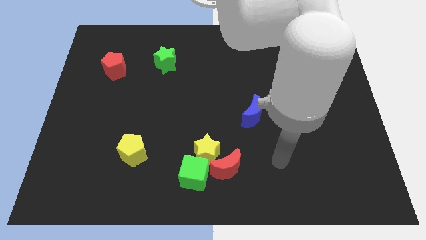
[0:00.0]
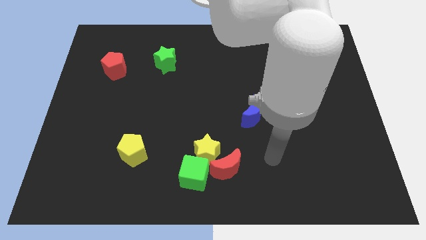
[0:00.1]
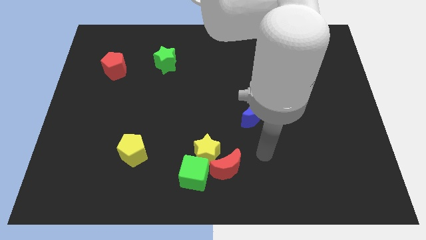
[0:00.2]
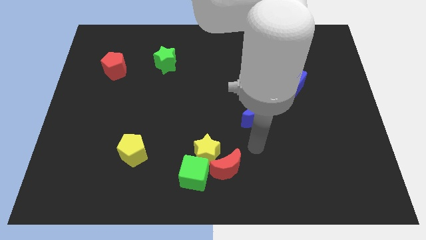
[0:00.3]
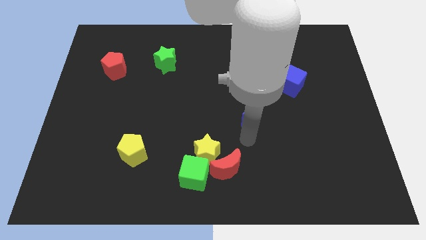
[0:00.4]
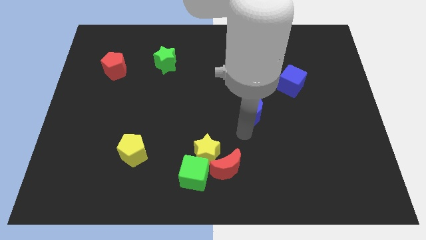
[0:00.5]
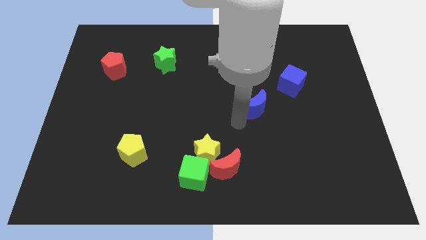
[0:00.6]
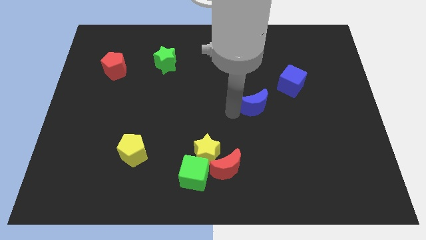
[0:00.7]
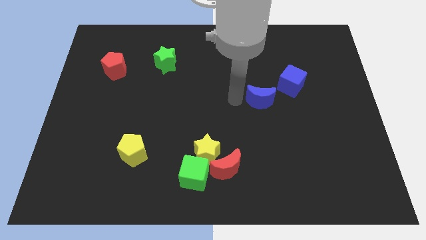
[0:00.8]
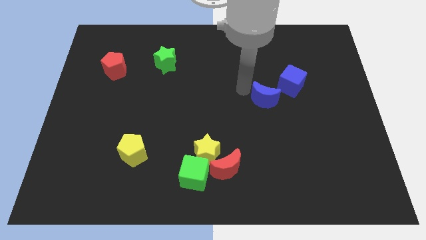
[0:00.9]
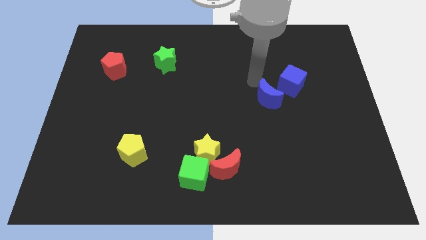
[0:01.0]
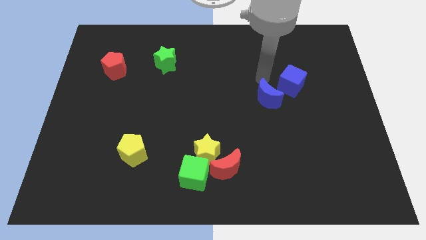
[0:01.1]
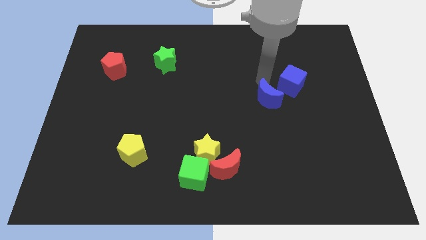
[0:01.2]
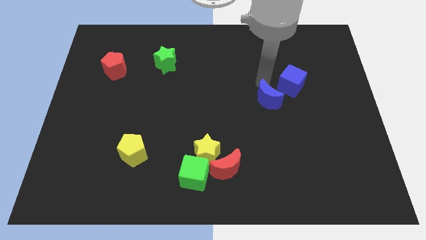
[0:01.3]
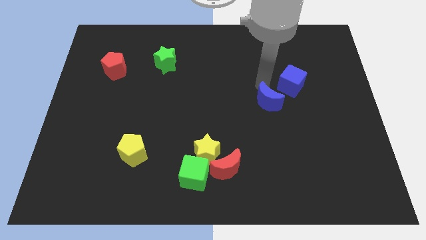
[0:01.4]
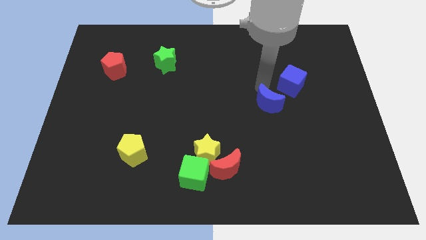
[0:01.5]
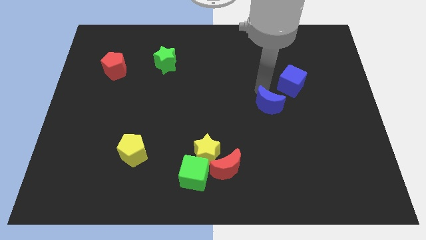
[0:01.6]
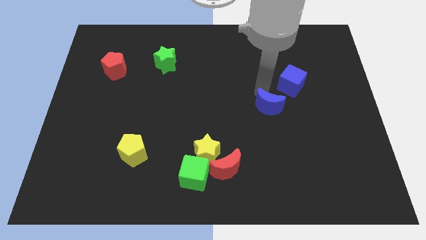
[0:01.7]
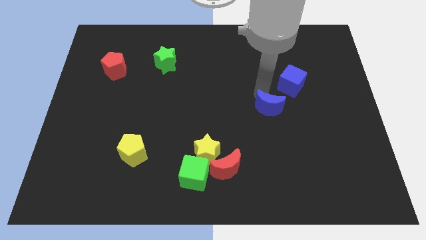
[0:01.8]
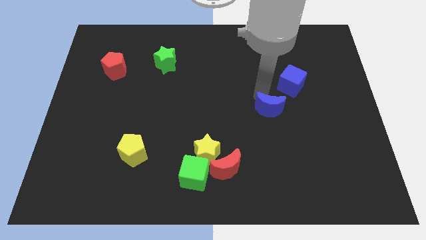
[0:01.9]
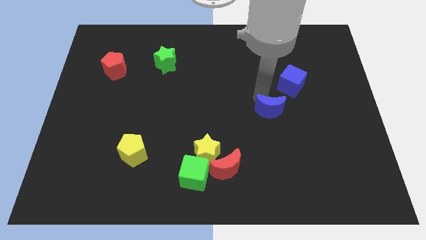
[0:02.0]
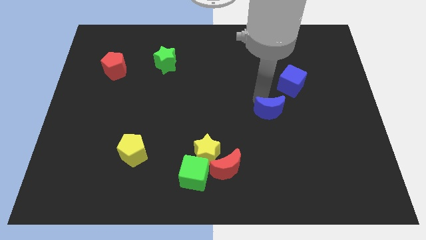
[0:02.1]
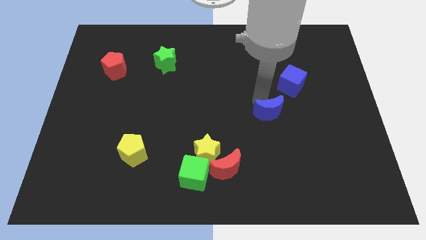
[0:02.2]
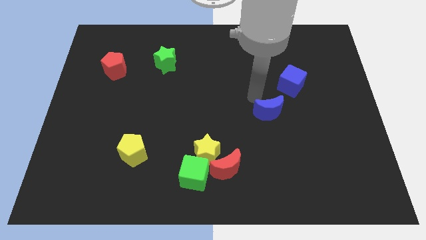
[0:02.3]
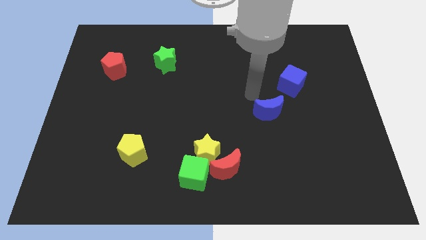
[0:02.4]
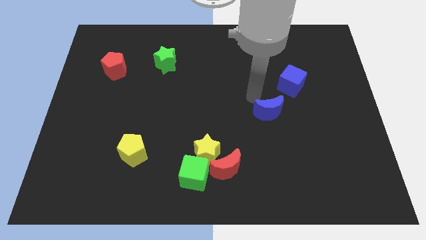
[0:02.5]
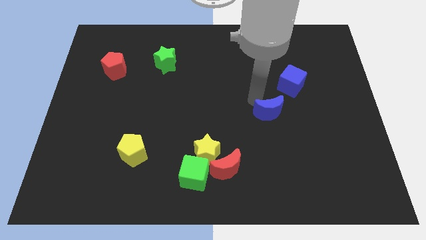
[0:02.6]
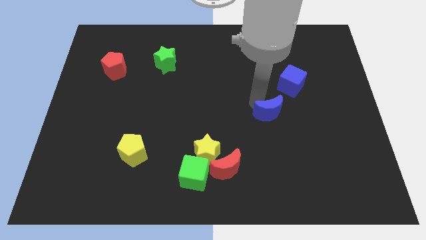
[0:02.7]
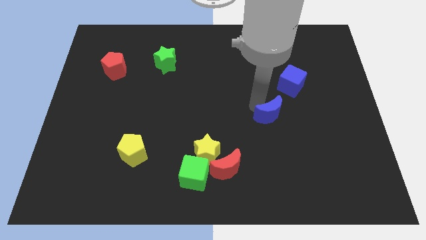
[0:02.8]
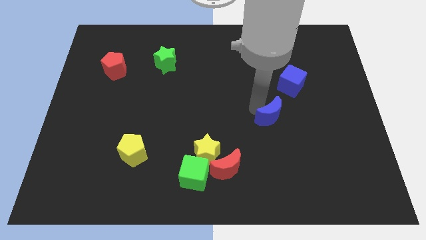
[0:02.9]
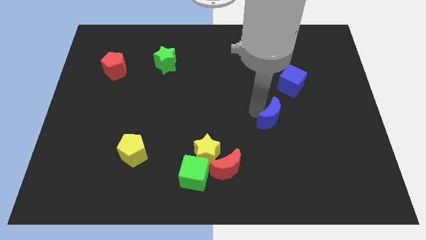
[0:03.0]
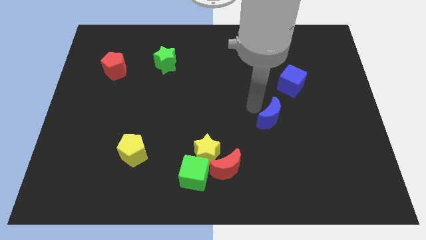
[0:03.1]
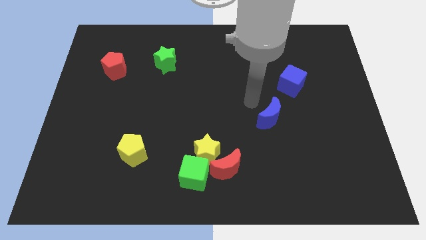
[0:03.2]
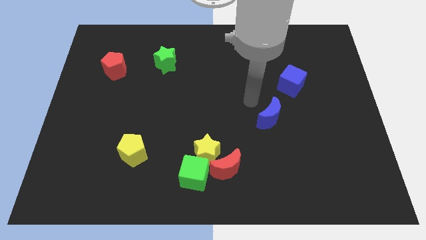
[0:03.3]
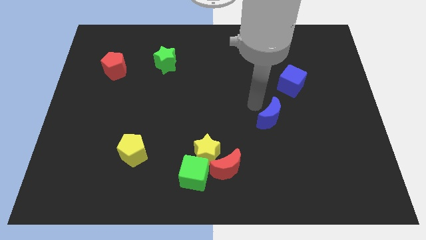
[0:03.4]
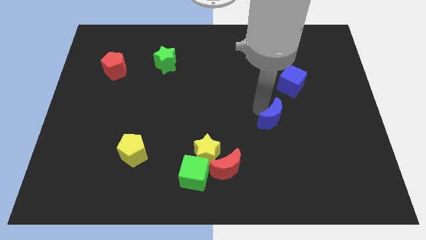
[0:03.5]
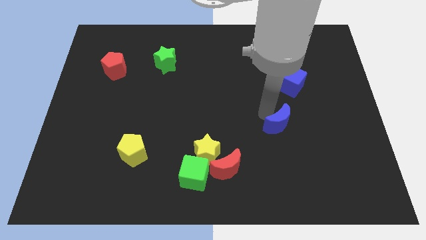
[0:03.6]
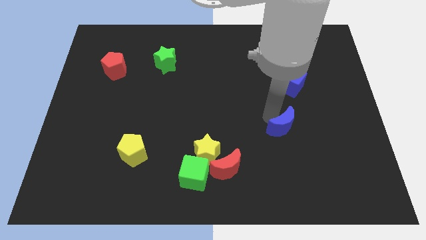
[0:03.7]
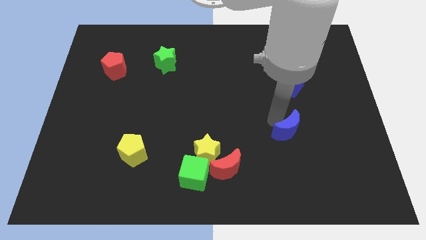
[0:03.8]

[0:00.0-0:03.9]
move the blue moon a little downwards and right

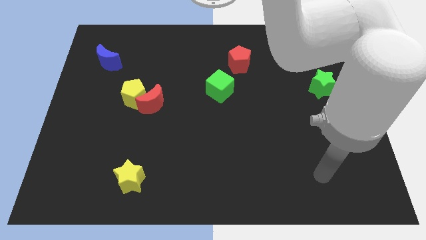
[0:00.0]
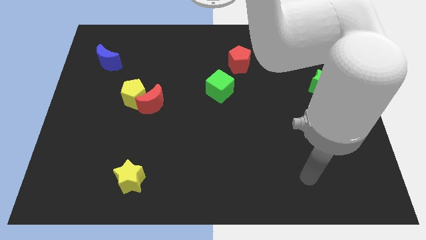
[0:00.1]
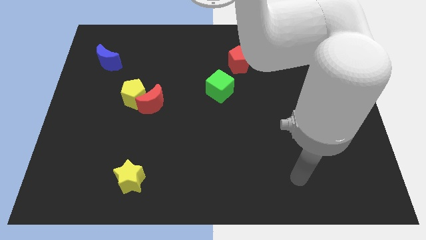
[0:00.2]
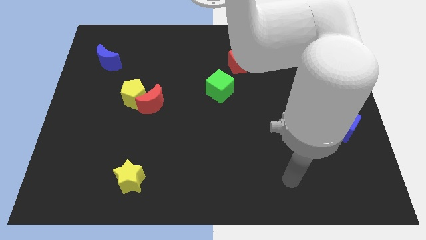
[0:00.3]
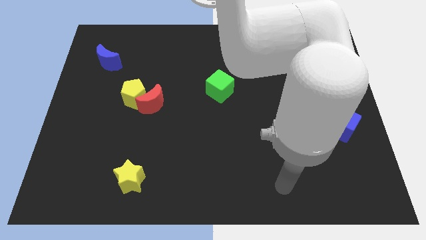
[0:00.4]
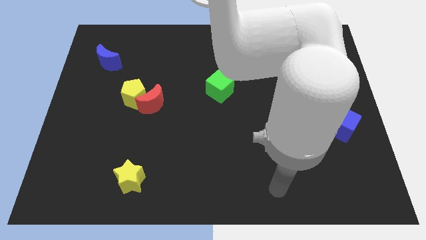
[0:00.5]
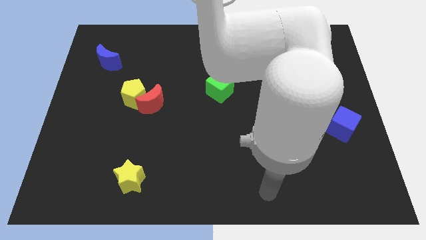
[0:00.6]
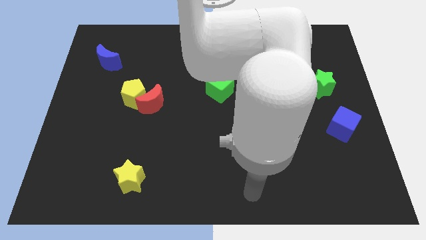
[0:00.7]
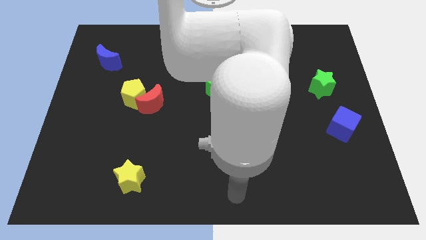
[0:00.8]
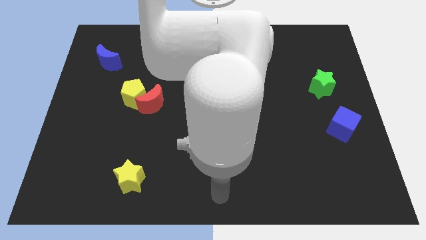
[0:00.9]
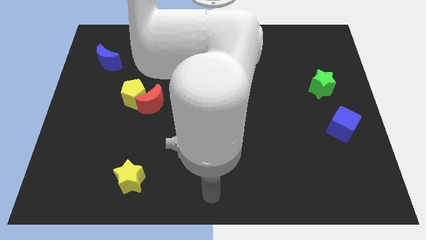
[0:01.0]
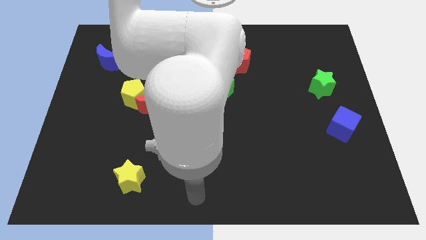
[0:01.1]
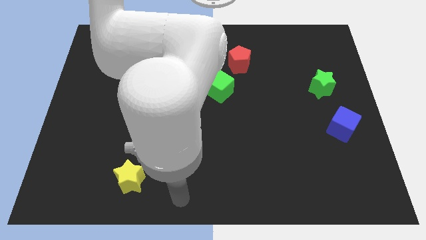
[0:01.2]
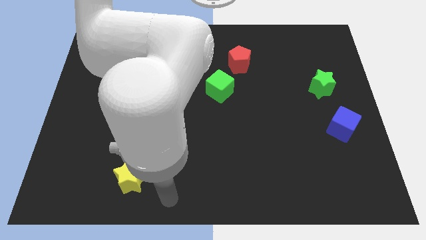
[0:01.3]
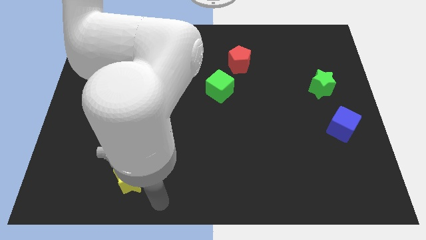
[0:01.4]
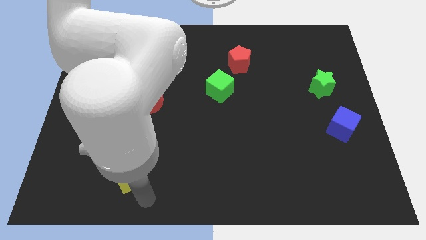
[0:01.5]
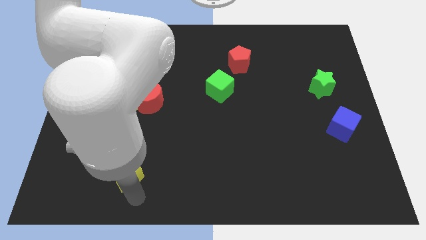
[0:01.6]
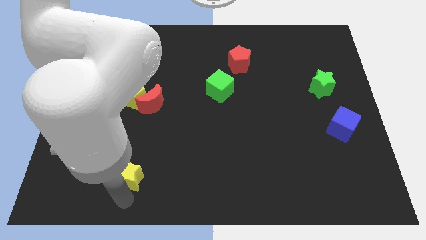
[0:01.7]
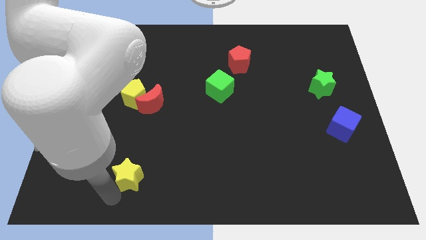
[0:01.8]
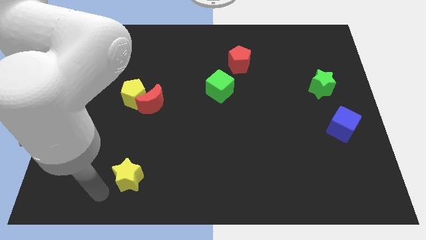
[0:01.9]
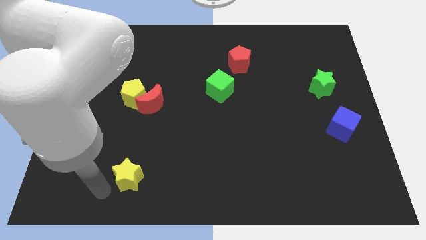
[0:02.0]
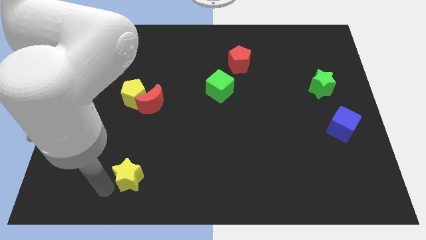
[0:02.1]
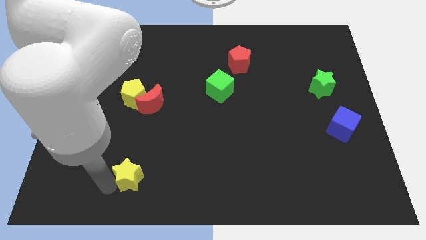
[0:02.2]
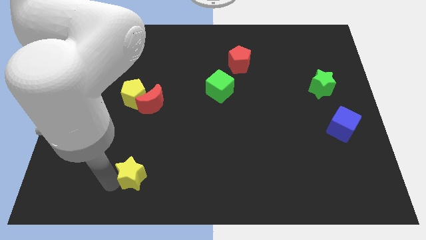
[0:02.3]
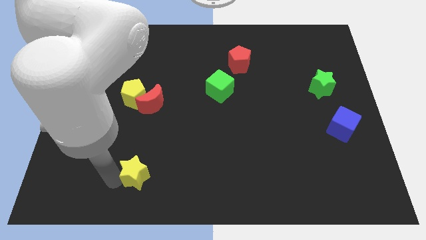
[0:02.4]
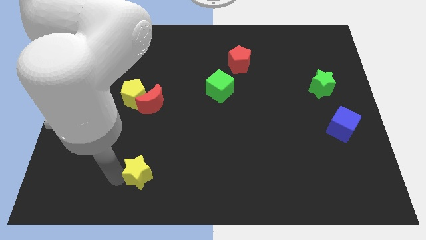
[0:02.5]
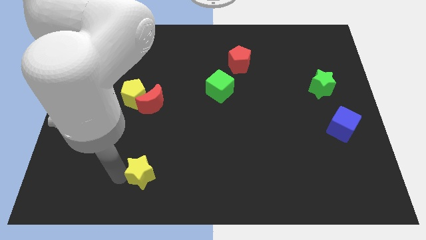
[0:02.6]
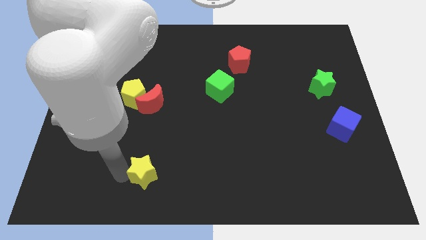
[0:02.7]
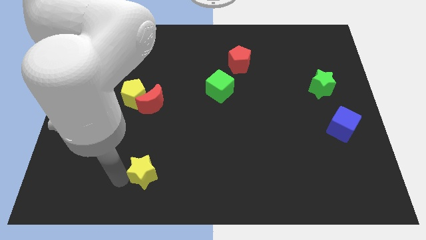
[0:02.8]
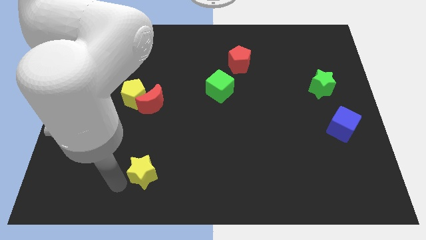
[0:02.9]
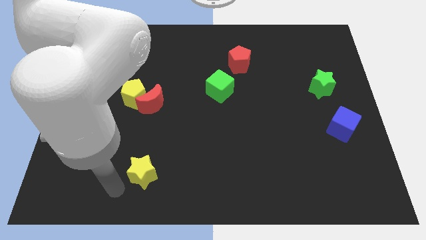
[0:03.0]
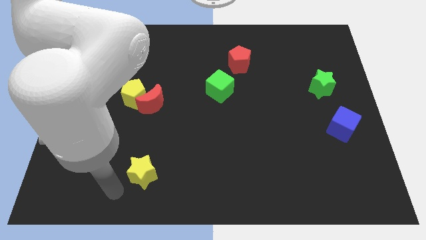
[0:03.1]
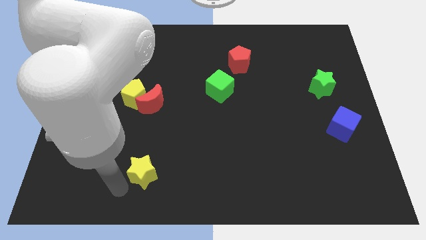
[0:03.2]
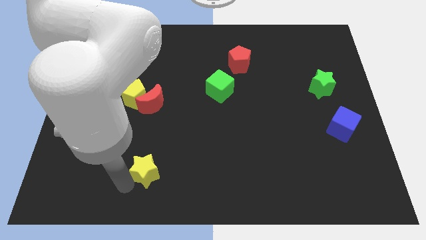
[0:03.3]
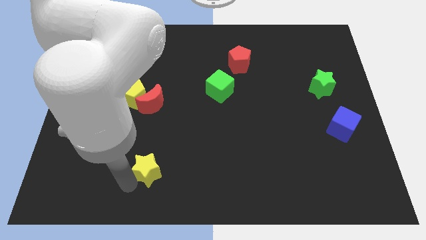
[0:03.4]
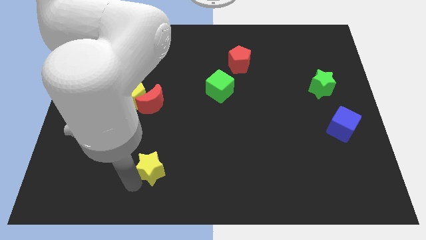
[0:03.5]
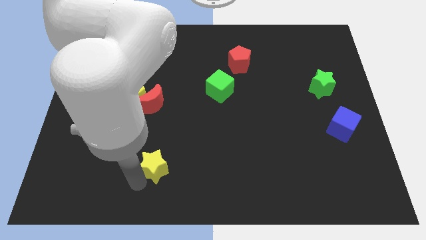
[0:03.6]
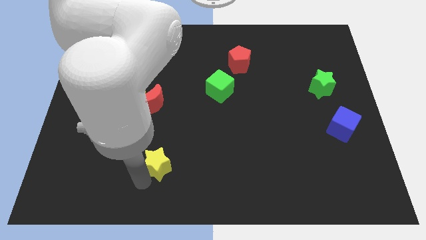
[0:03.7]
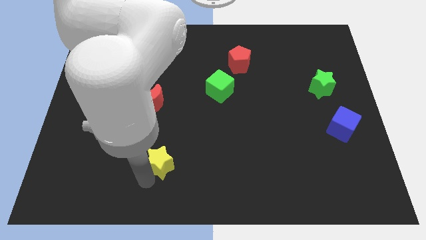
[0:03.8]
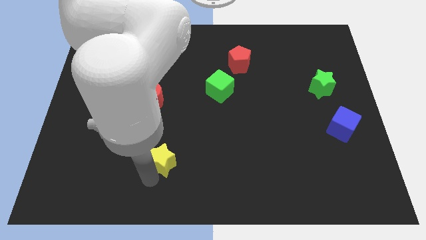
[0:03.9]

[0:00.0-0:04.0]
move the yellow star up and right diagonally somewhat

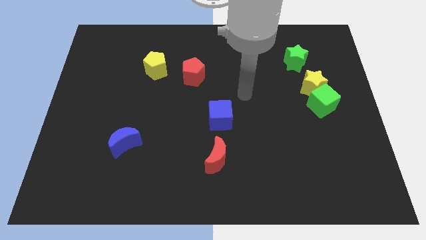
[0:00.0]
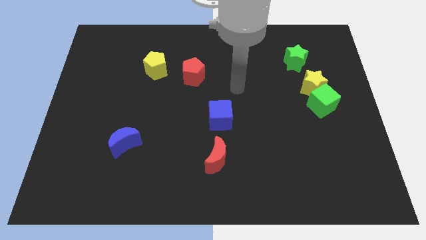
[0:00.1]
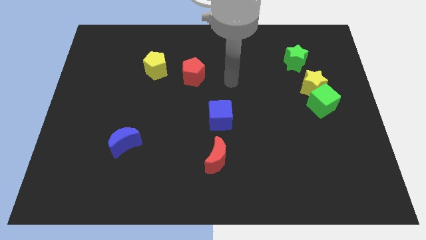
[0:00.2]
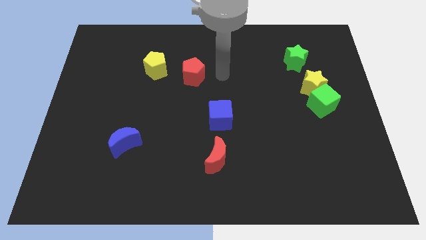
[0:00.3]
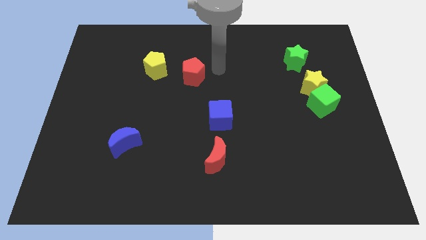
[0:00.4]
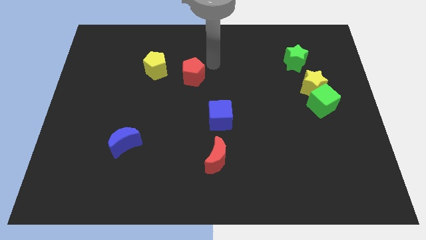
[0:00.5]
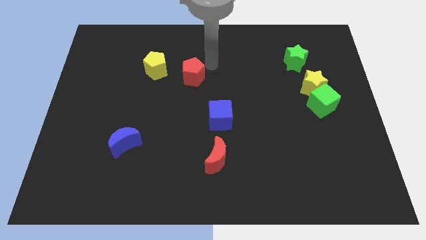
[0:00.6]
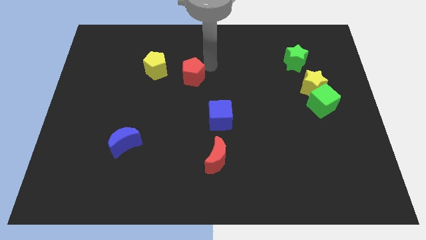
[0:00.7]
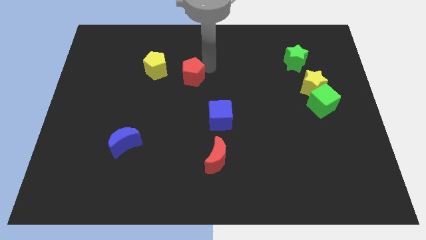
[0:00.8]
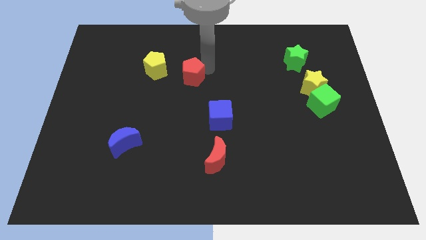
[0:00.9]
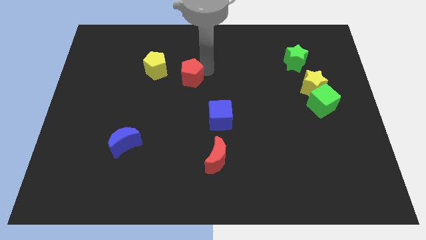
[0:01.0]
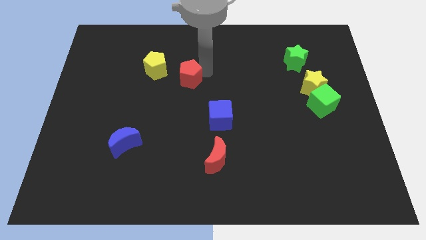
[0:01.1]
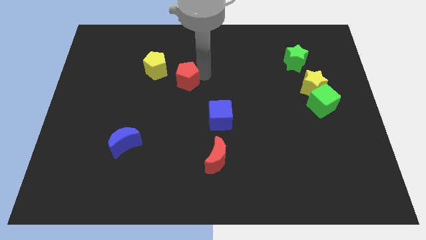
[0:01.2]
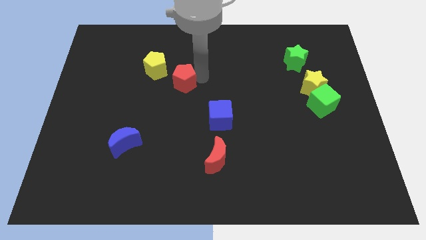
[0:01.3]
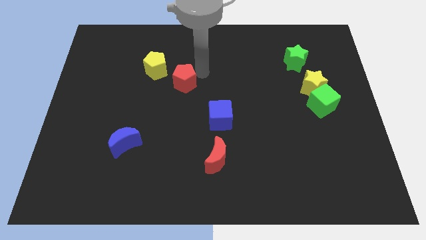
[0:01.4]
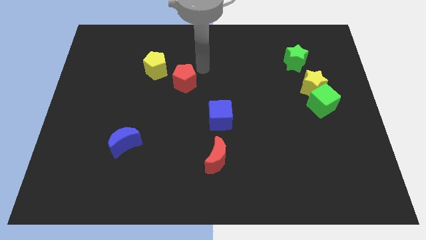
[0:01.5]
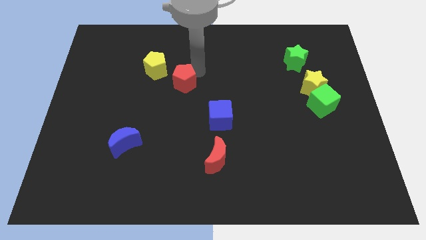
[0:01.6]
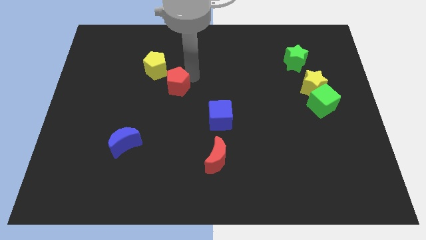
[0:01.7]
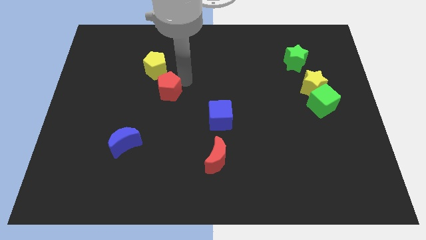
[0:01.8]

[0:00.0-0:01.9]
move the red pentagon somewhat diagonally down and to the left
